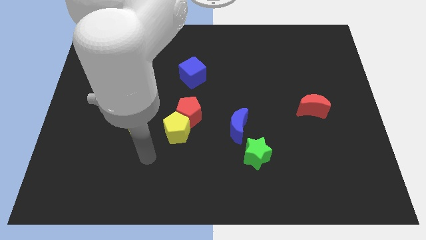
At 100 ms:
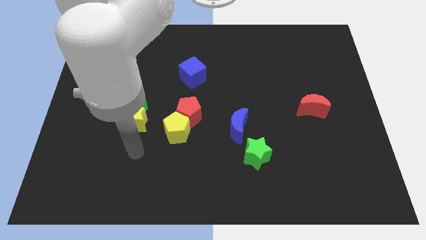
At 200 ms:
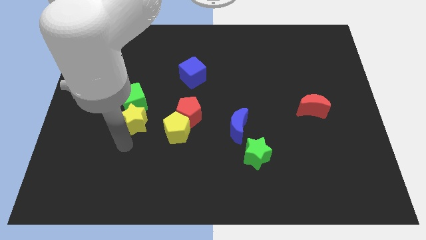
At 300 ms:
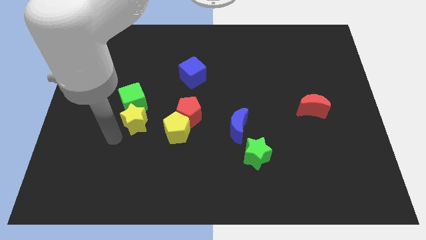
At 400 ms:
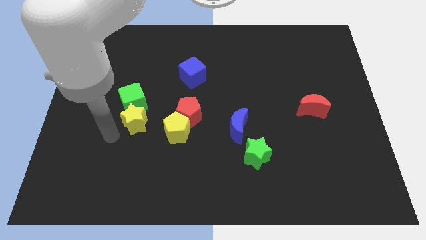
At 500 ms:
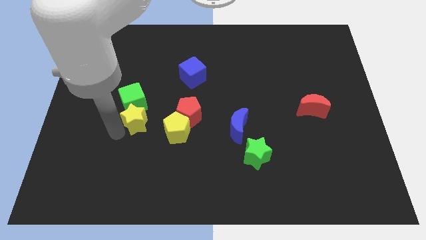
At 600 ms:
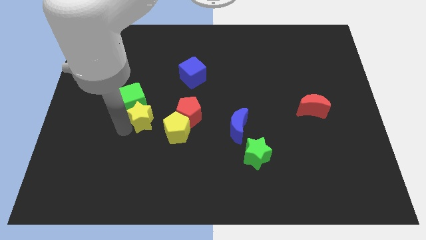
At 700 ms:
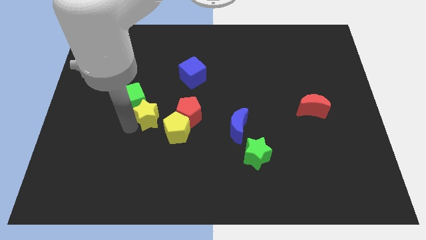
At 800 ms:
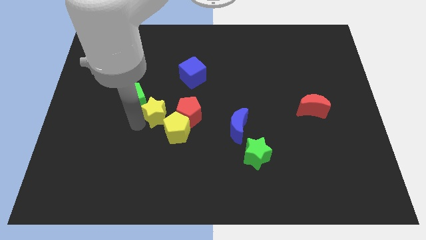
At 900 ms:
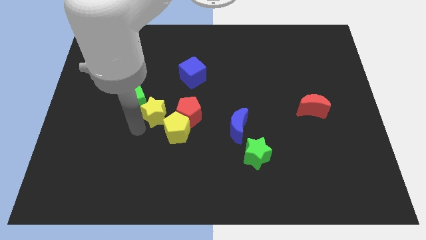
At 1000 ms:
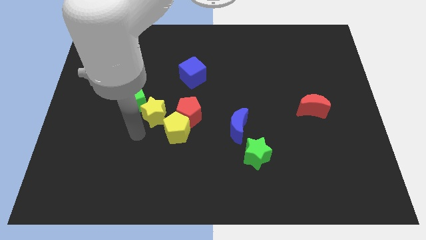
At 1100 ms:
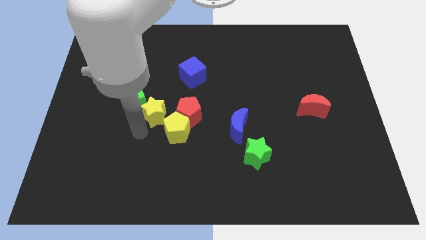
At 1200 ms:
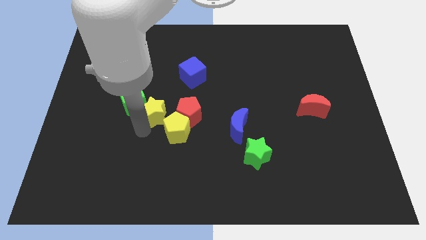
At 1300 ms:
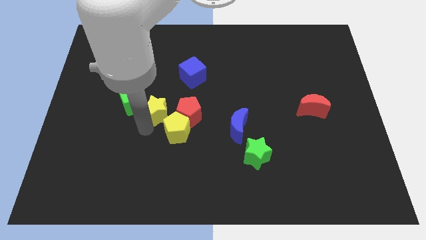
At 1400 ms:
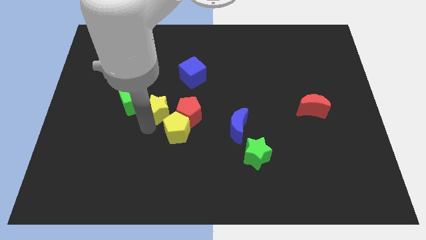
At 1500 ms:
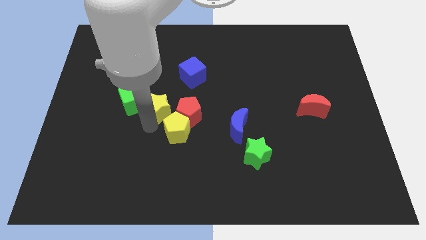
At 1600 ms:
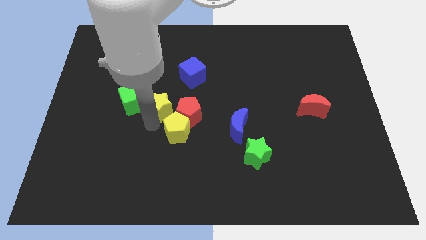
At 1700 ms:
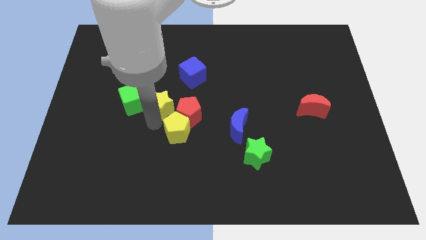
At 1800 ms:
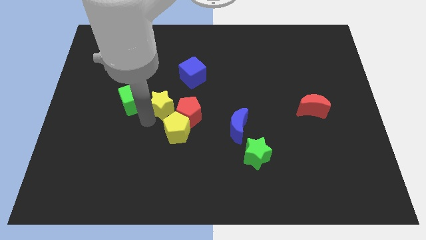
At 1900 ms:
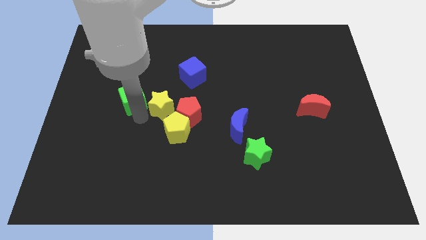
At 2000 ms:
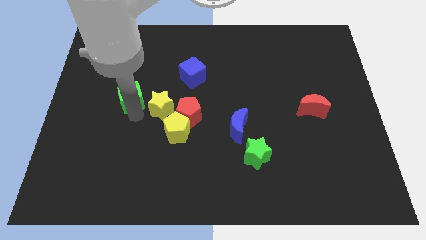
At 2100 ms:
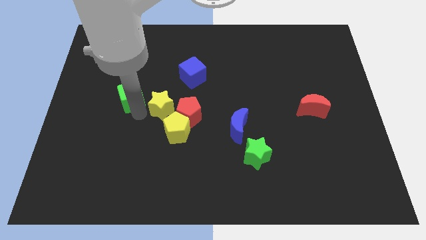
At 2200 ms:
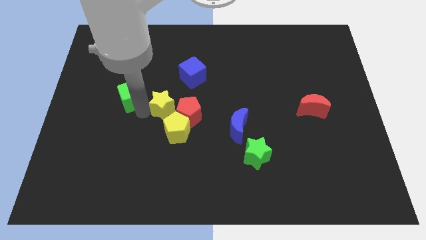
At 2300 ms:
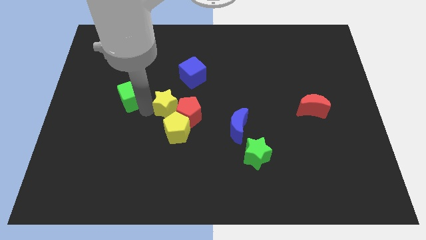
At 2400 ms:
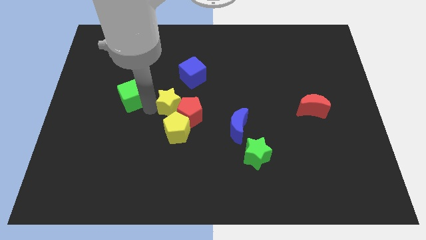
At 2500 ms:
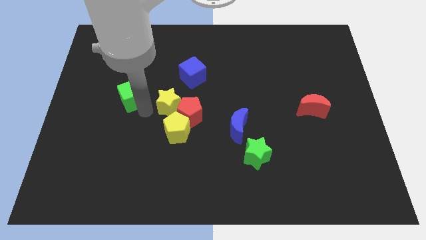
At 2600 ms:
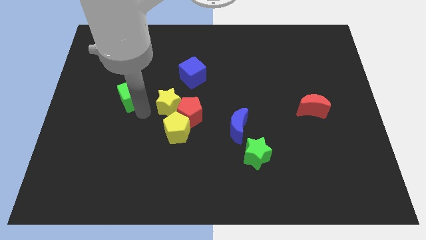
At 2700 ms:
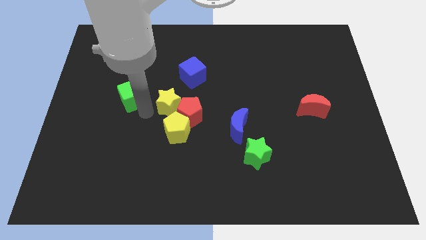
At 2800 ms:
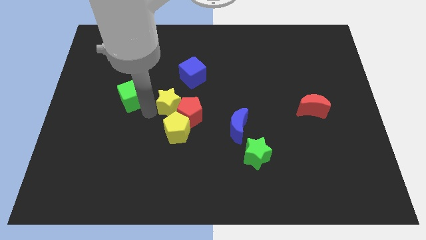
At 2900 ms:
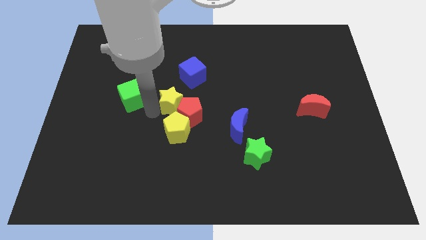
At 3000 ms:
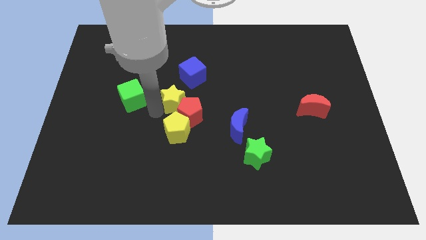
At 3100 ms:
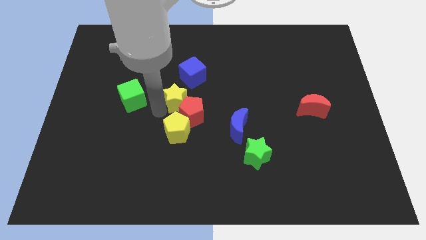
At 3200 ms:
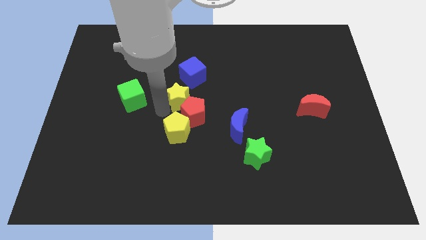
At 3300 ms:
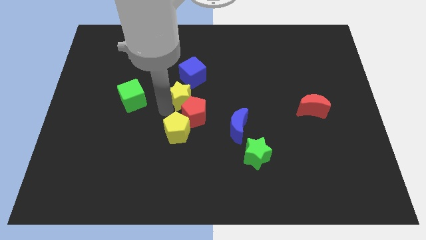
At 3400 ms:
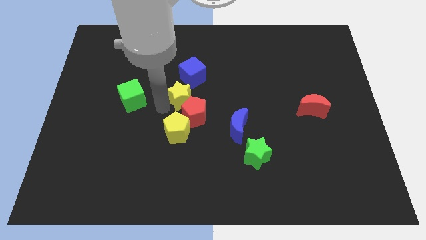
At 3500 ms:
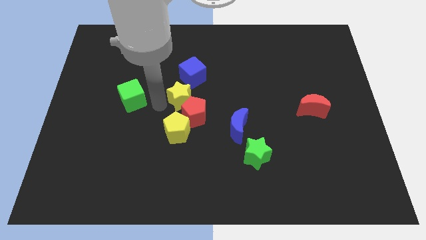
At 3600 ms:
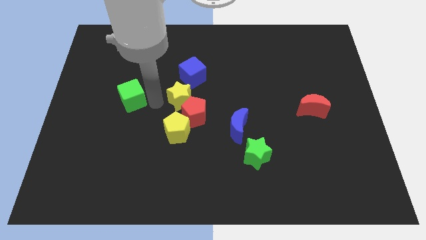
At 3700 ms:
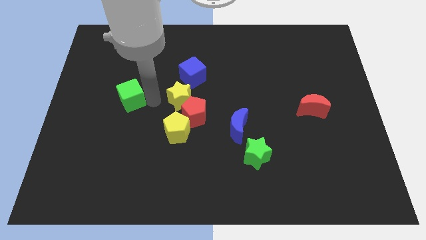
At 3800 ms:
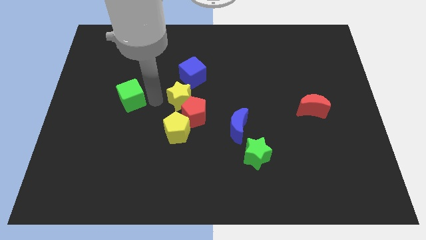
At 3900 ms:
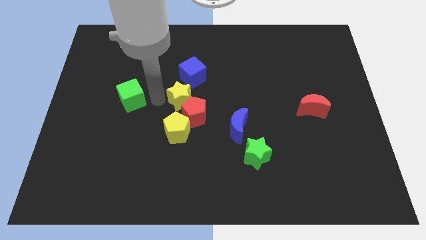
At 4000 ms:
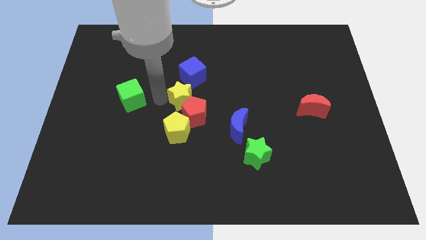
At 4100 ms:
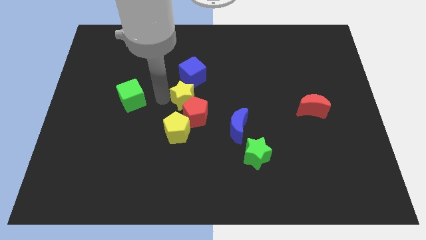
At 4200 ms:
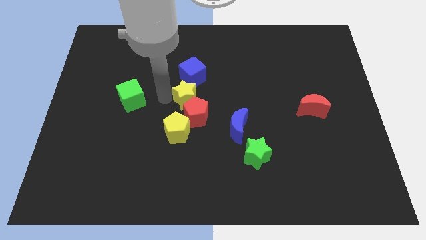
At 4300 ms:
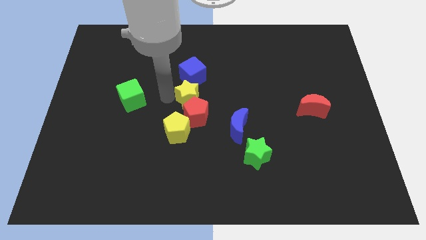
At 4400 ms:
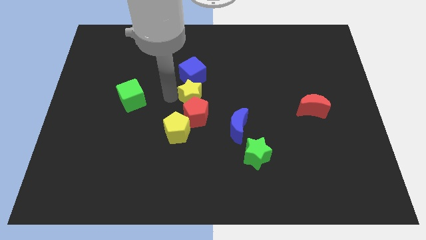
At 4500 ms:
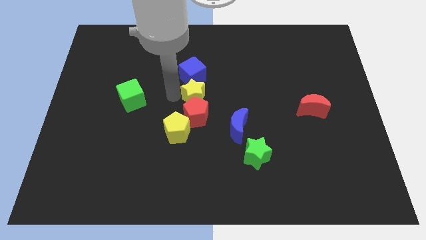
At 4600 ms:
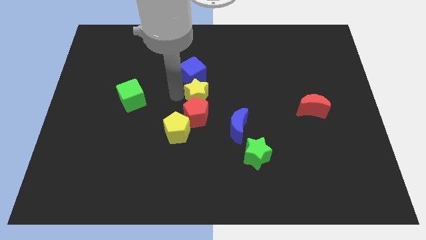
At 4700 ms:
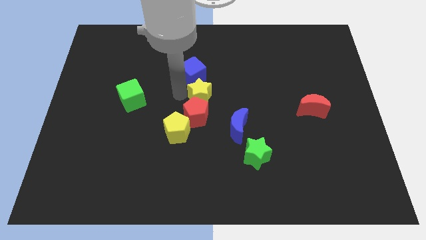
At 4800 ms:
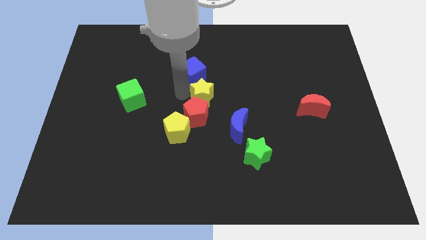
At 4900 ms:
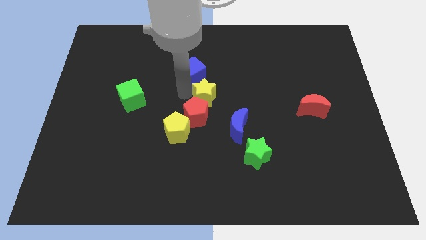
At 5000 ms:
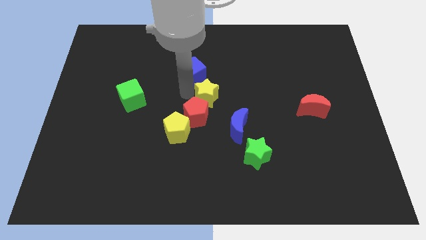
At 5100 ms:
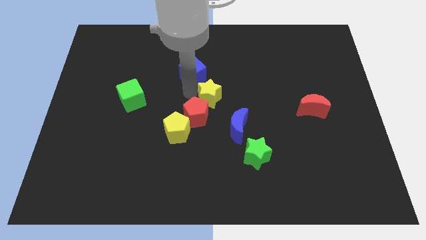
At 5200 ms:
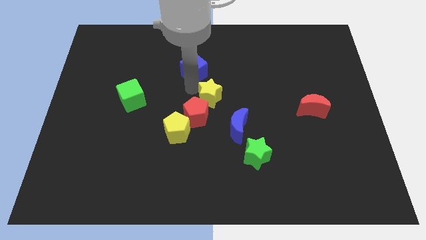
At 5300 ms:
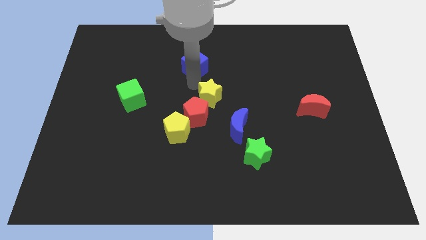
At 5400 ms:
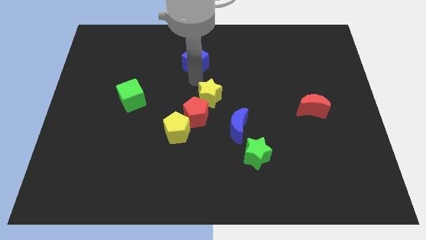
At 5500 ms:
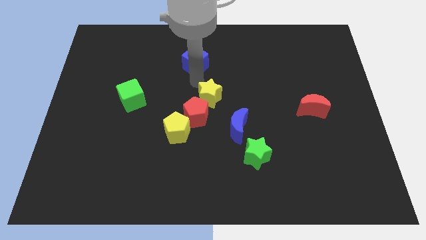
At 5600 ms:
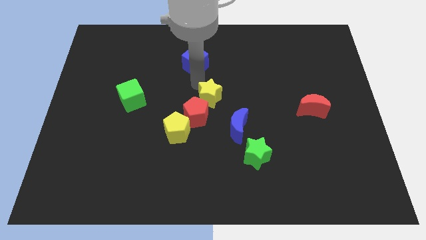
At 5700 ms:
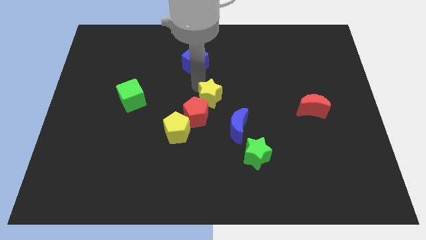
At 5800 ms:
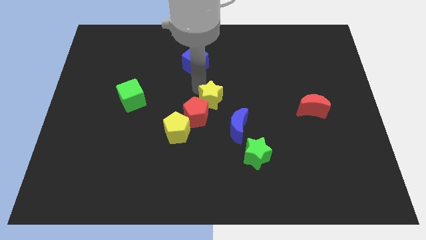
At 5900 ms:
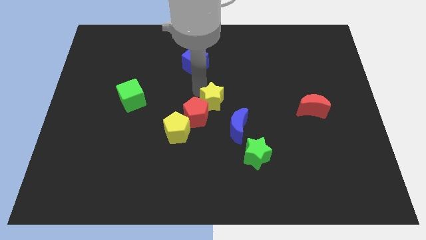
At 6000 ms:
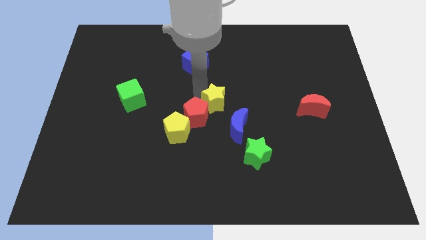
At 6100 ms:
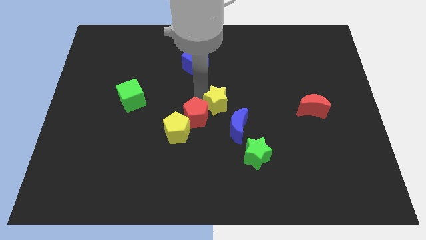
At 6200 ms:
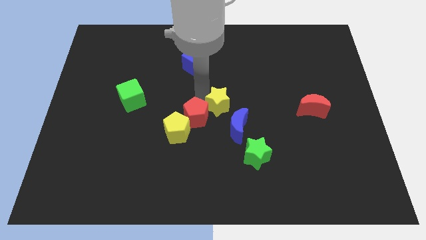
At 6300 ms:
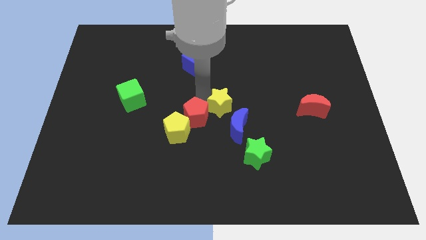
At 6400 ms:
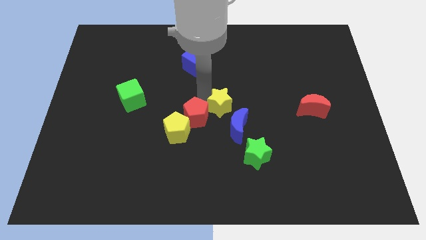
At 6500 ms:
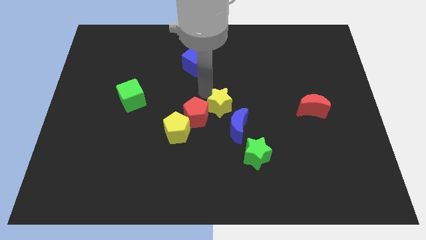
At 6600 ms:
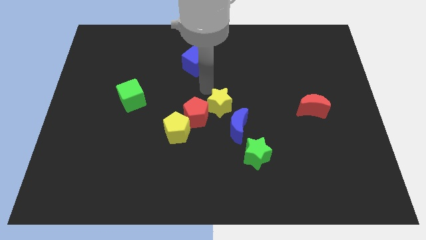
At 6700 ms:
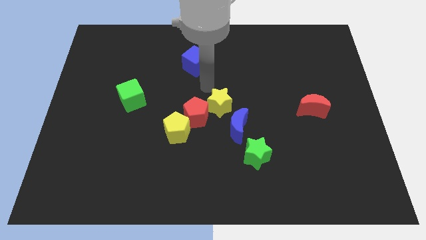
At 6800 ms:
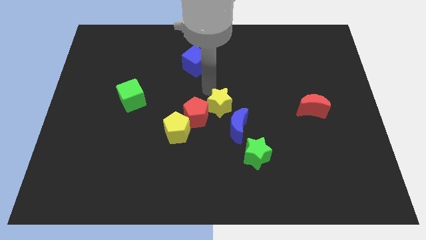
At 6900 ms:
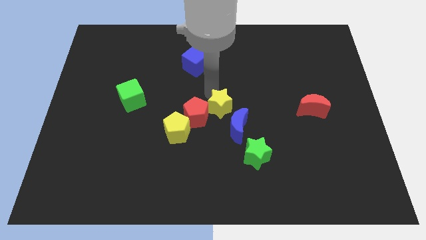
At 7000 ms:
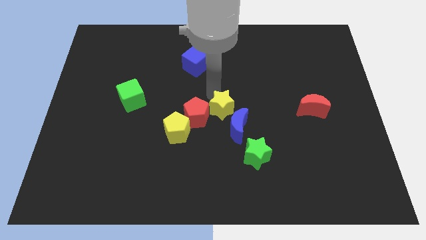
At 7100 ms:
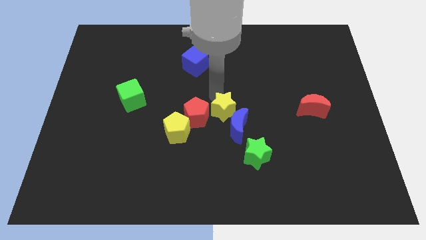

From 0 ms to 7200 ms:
move the yellow star close to the blue moon
